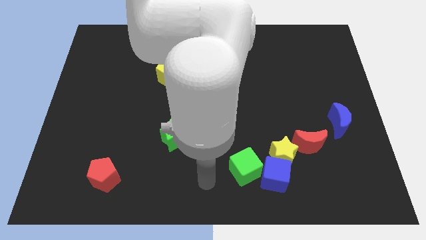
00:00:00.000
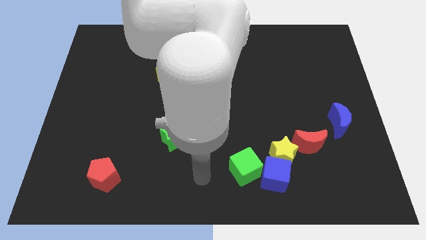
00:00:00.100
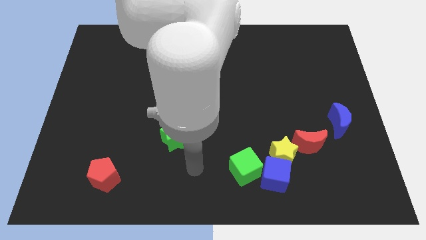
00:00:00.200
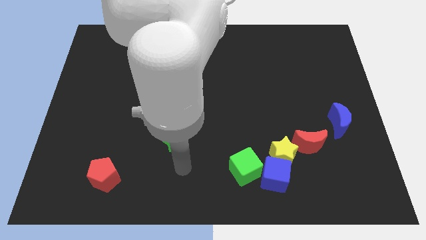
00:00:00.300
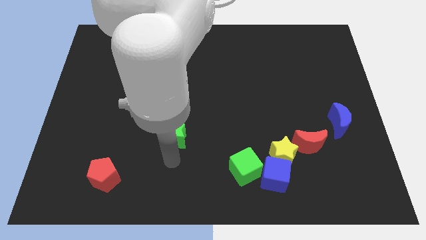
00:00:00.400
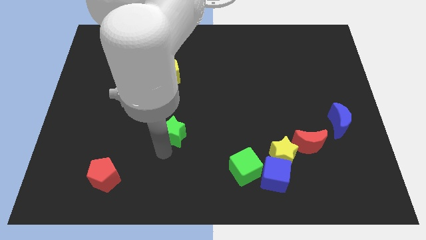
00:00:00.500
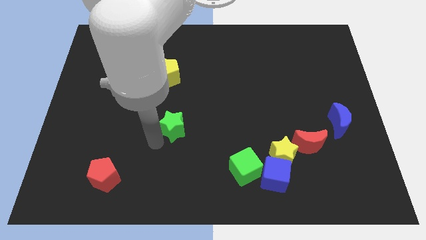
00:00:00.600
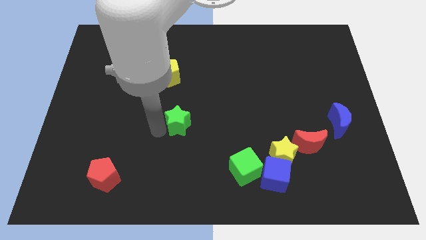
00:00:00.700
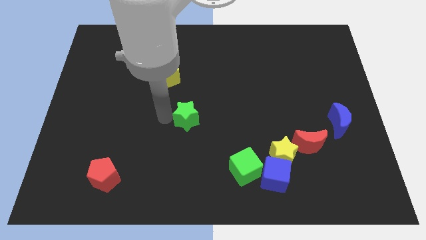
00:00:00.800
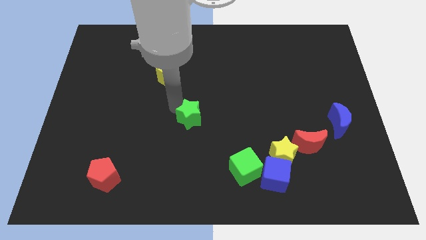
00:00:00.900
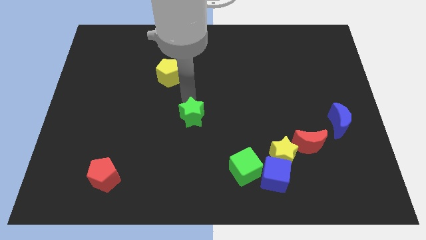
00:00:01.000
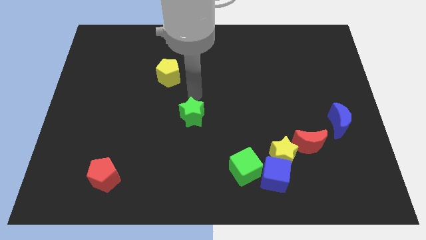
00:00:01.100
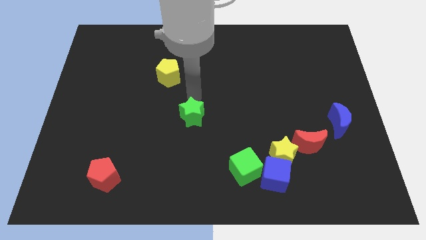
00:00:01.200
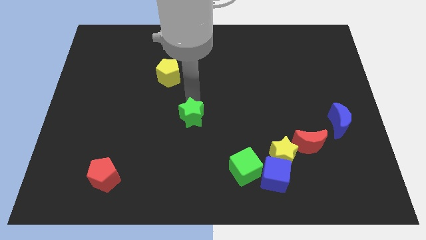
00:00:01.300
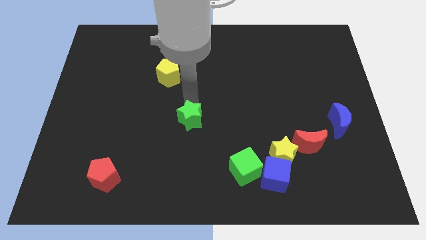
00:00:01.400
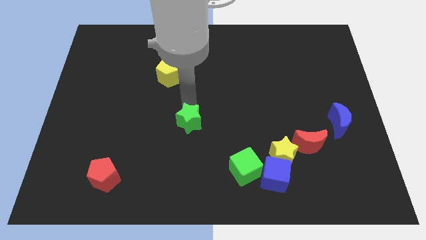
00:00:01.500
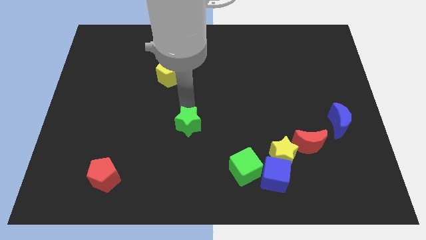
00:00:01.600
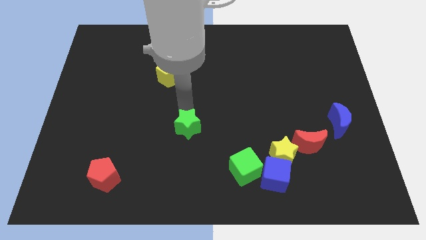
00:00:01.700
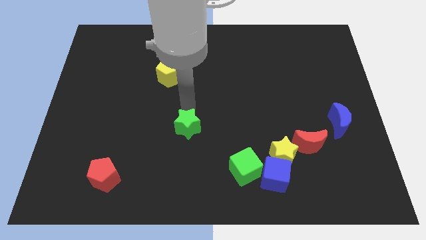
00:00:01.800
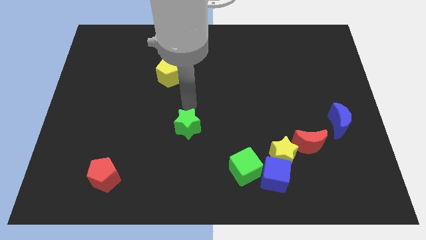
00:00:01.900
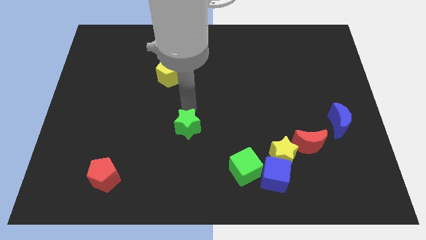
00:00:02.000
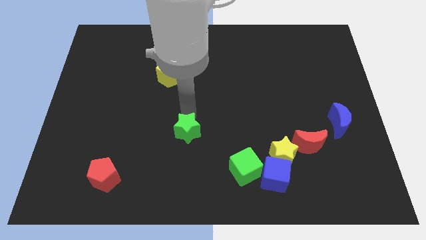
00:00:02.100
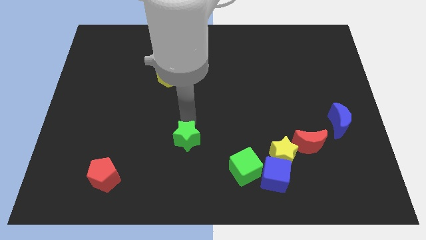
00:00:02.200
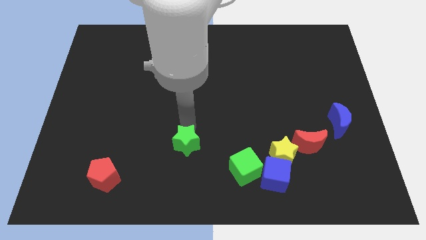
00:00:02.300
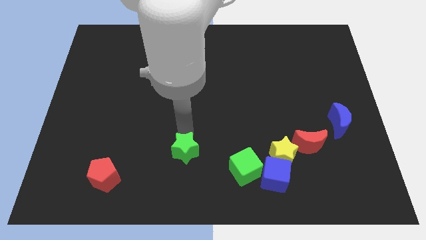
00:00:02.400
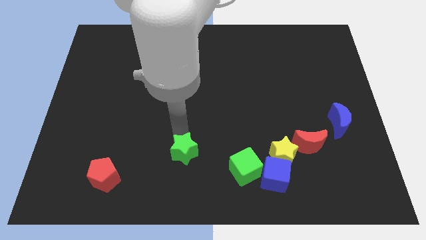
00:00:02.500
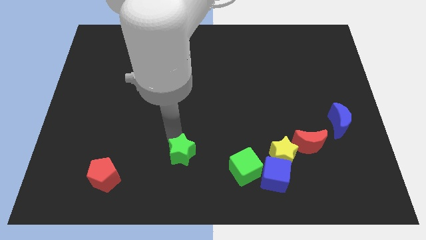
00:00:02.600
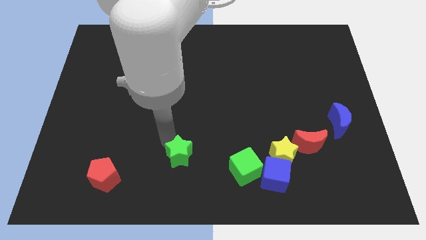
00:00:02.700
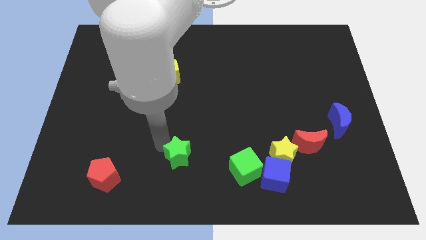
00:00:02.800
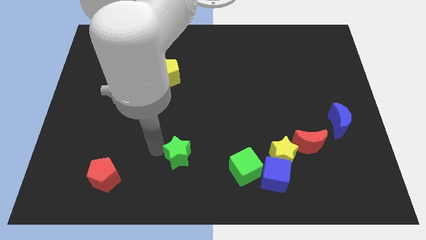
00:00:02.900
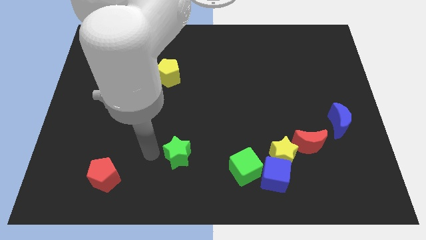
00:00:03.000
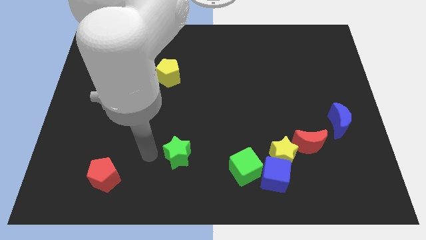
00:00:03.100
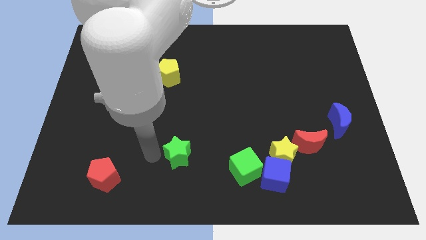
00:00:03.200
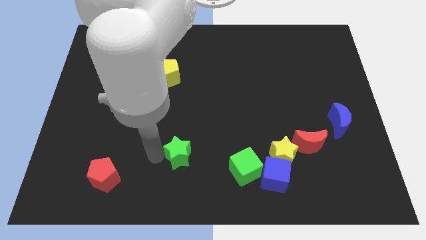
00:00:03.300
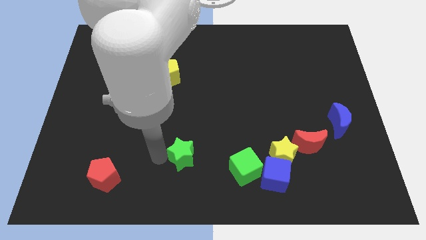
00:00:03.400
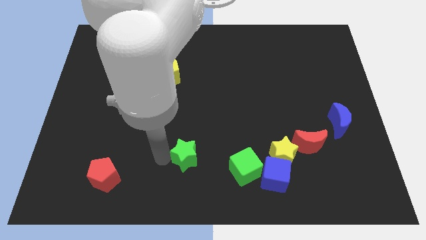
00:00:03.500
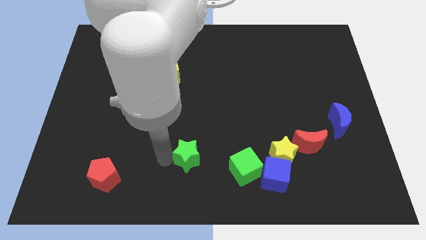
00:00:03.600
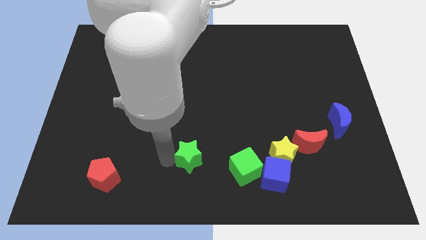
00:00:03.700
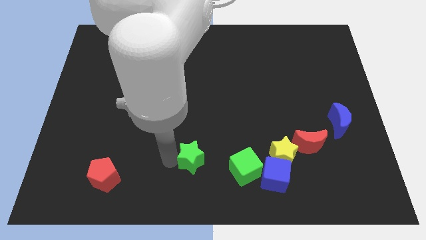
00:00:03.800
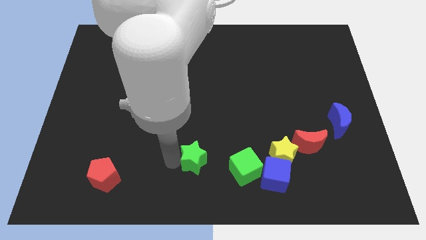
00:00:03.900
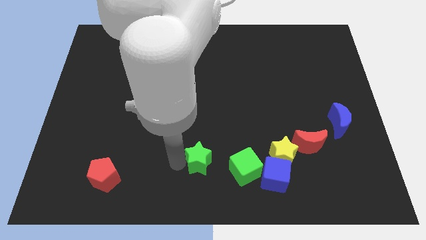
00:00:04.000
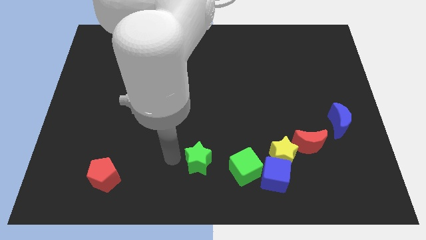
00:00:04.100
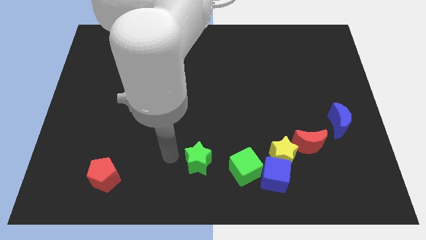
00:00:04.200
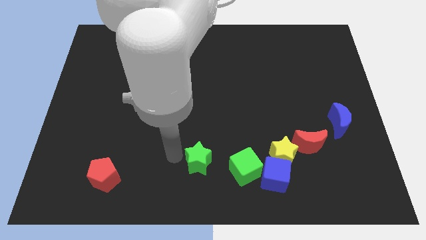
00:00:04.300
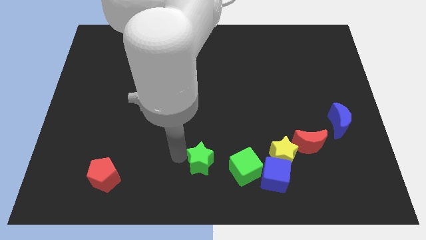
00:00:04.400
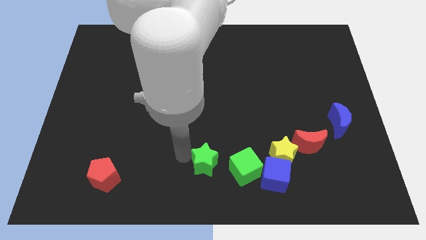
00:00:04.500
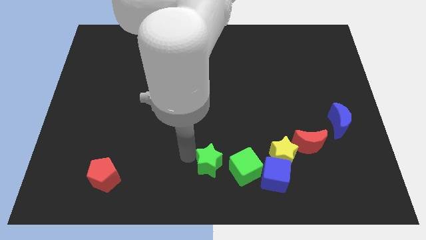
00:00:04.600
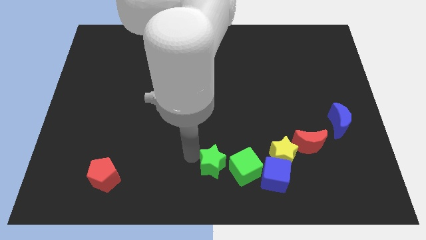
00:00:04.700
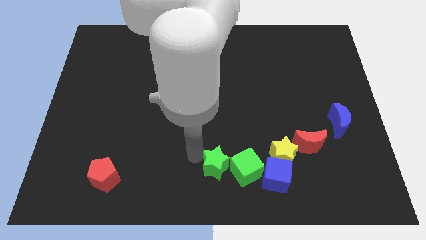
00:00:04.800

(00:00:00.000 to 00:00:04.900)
push the green star close to the green cube

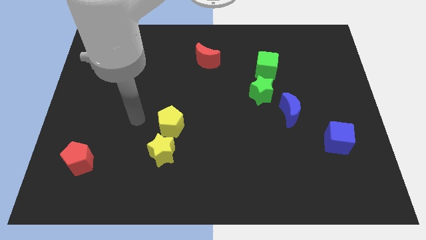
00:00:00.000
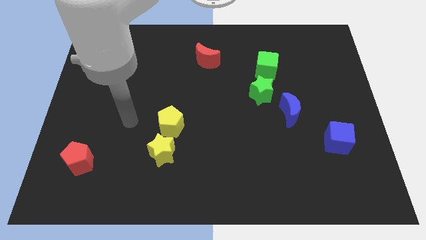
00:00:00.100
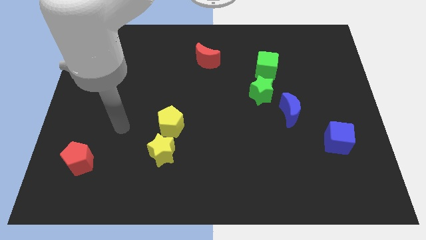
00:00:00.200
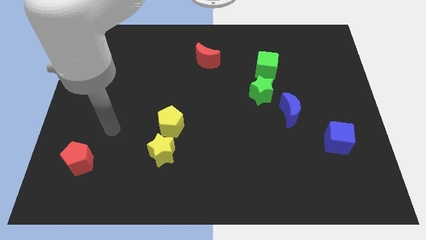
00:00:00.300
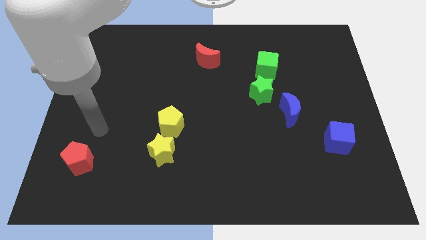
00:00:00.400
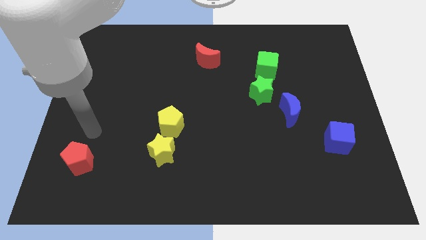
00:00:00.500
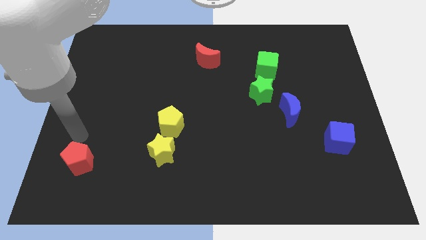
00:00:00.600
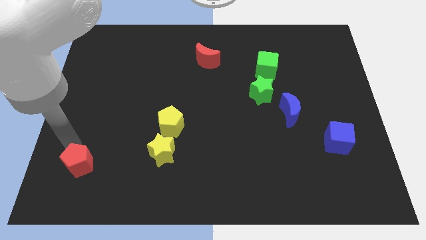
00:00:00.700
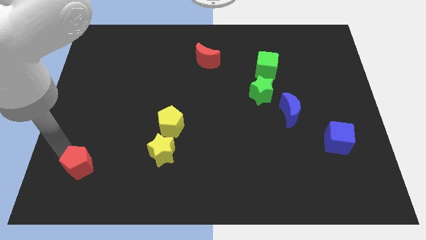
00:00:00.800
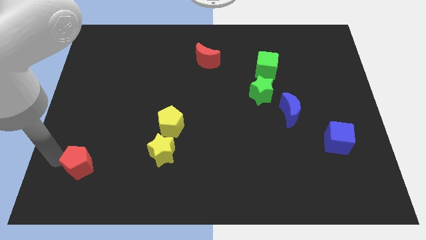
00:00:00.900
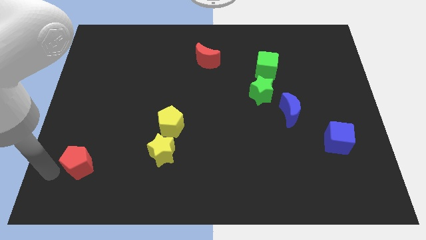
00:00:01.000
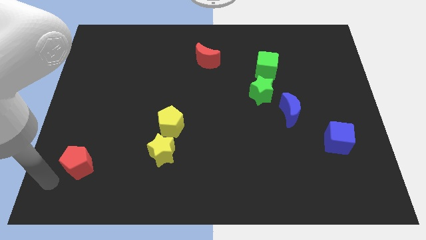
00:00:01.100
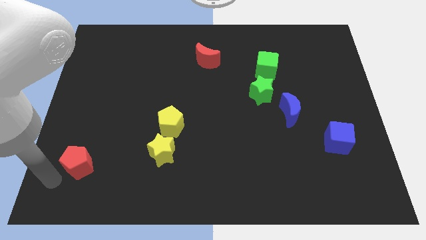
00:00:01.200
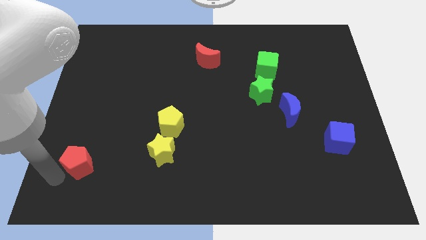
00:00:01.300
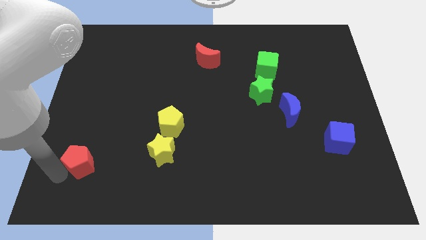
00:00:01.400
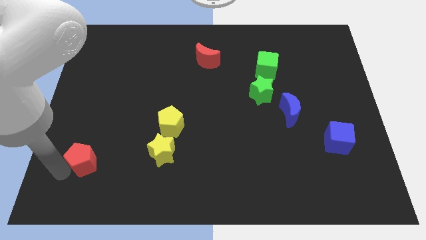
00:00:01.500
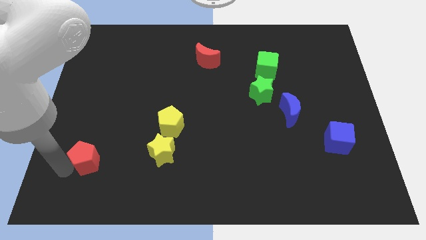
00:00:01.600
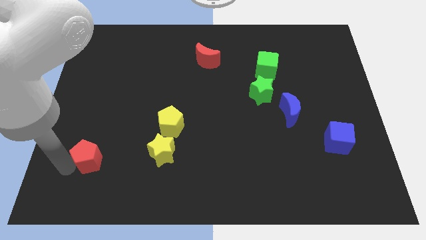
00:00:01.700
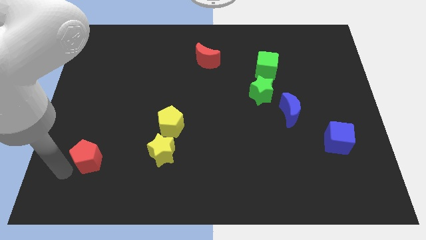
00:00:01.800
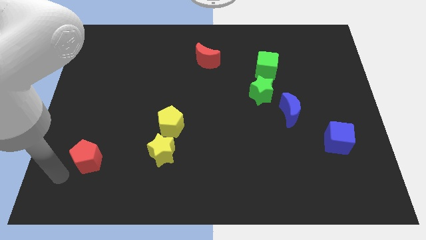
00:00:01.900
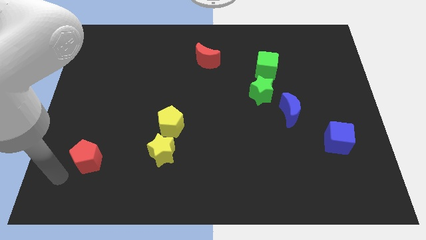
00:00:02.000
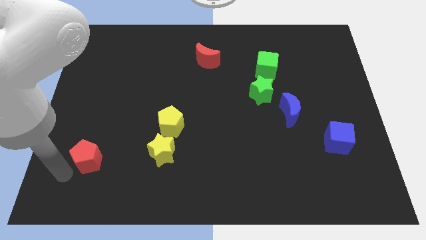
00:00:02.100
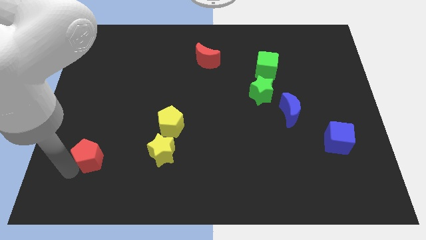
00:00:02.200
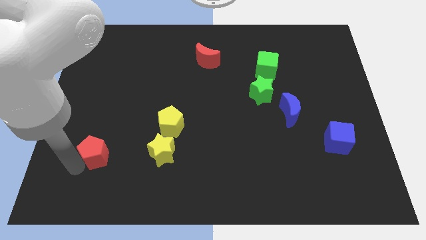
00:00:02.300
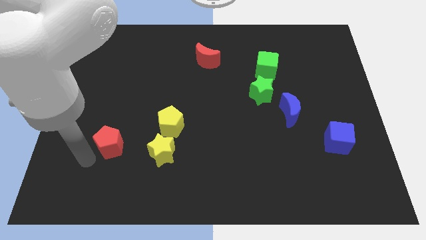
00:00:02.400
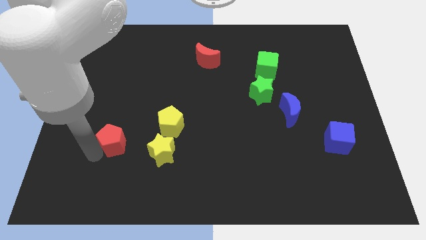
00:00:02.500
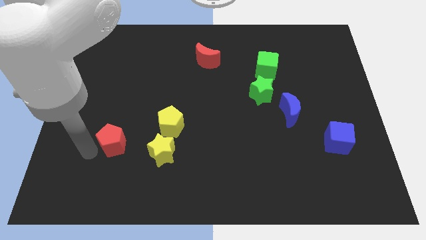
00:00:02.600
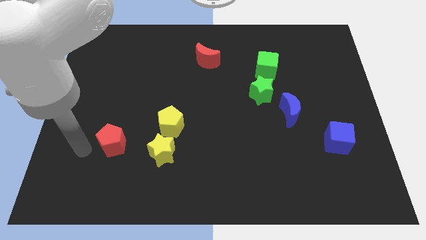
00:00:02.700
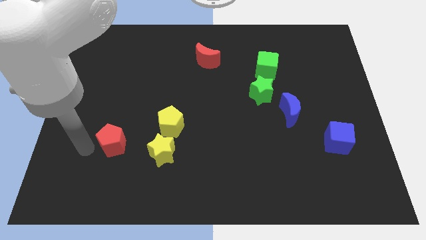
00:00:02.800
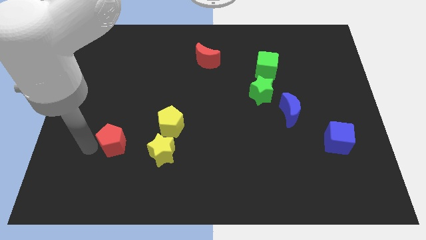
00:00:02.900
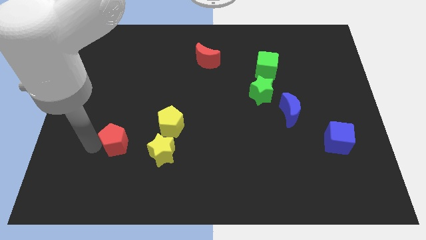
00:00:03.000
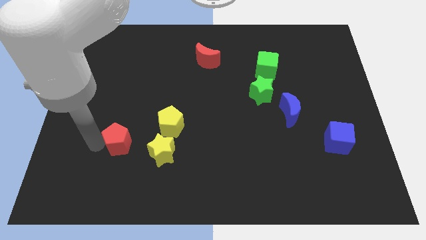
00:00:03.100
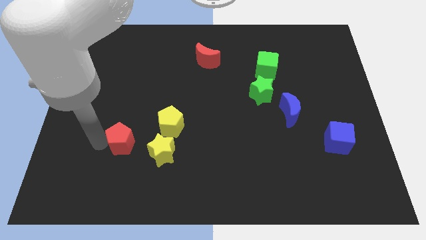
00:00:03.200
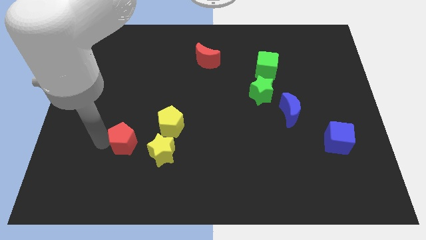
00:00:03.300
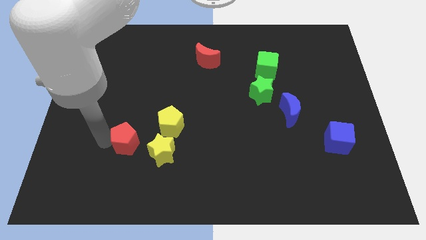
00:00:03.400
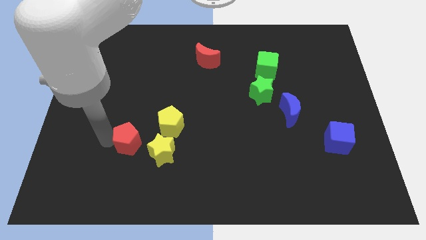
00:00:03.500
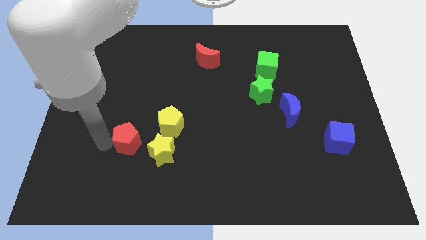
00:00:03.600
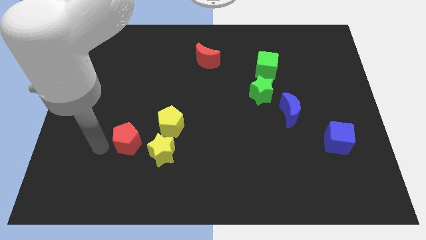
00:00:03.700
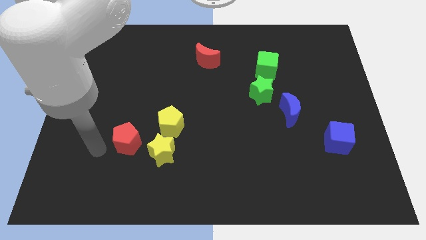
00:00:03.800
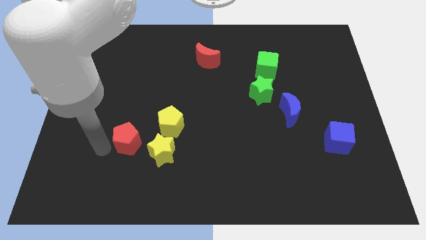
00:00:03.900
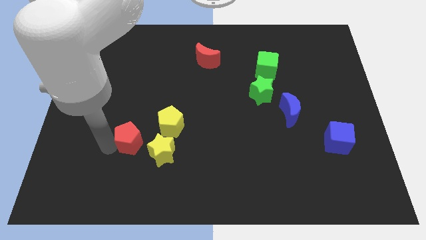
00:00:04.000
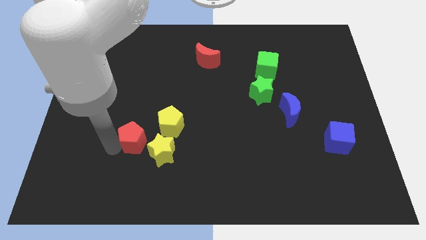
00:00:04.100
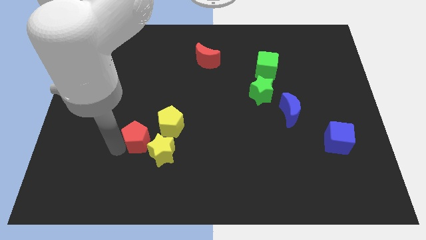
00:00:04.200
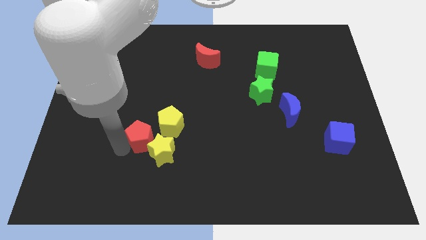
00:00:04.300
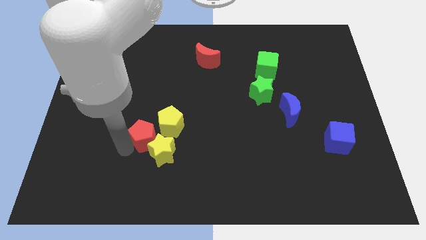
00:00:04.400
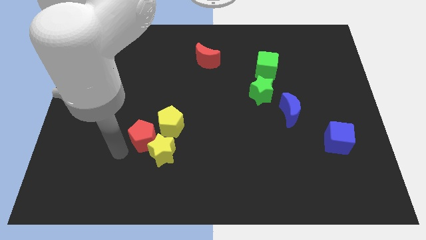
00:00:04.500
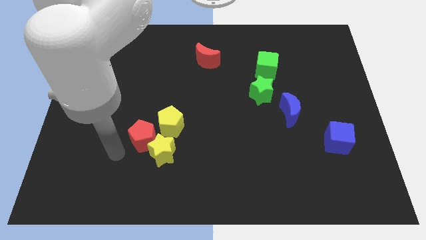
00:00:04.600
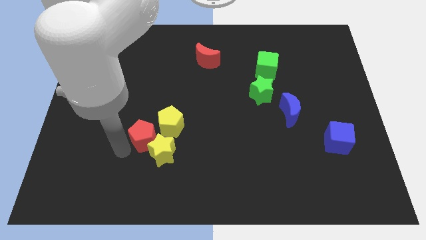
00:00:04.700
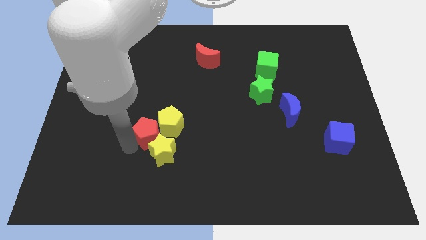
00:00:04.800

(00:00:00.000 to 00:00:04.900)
slide the red pentagon towards the yellow pentagon
